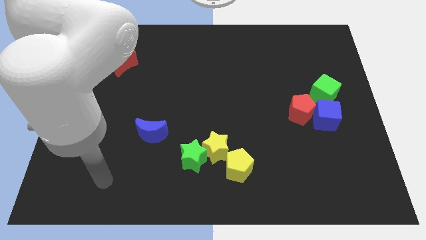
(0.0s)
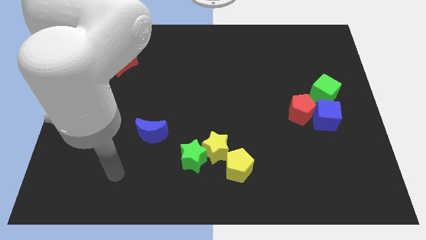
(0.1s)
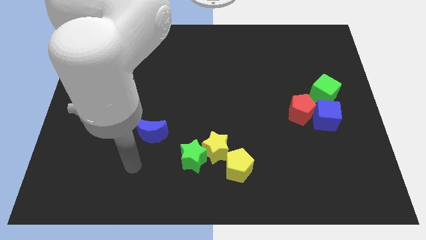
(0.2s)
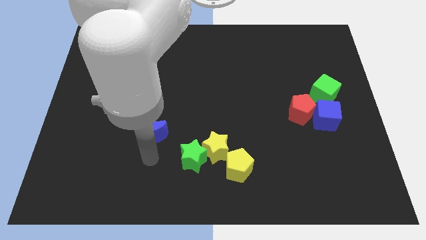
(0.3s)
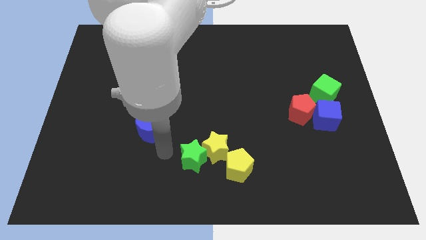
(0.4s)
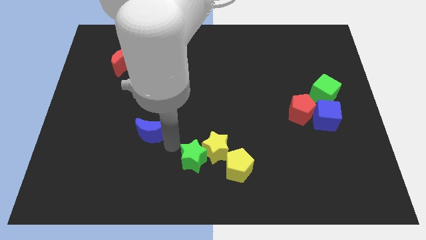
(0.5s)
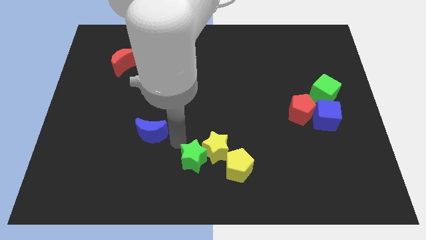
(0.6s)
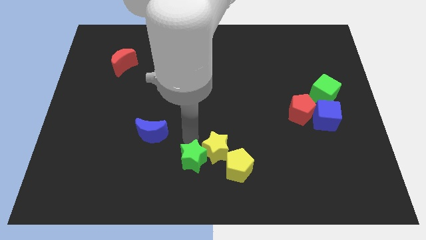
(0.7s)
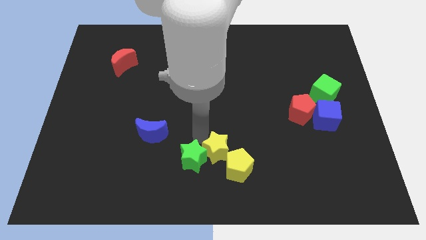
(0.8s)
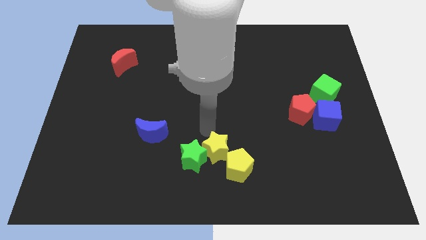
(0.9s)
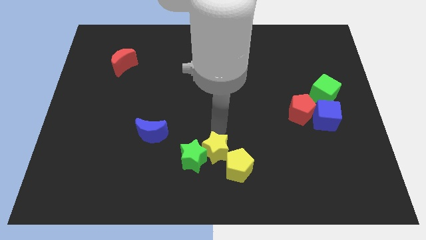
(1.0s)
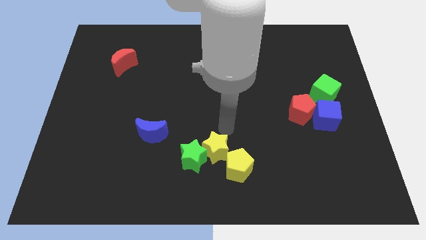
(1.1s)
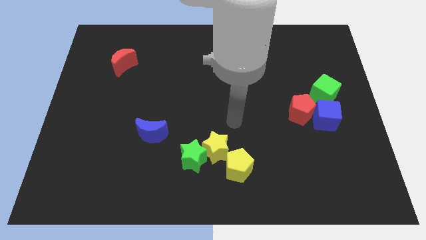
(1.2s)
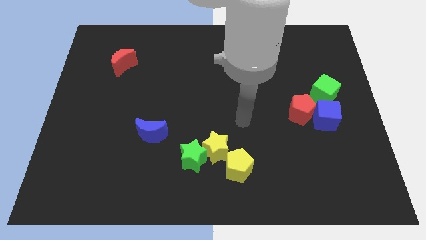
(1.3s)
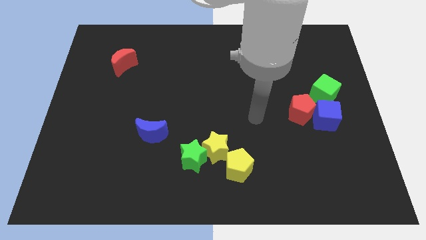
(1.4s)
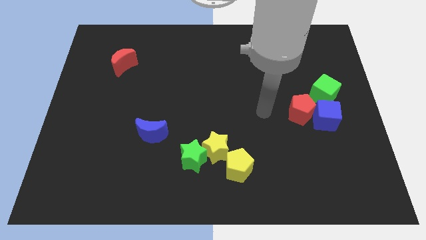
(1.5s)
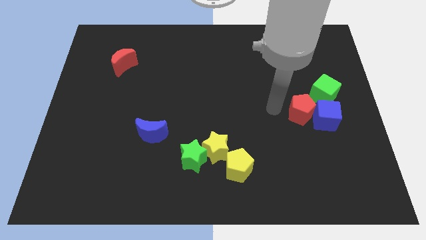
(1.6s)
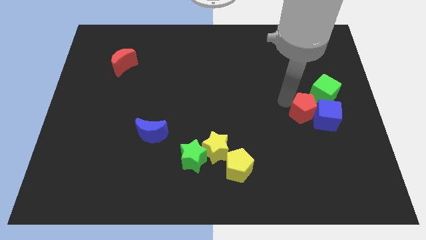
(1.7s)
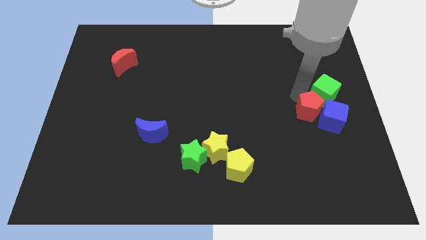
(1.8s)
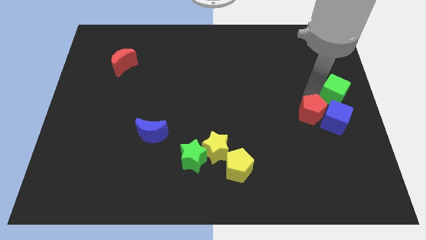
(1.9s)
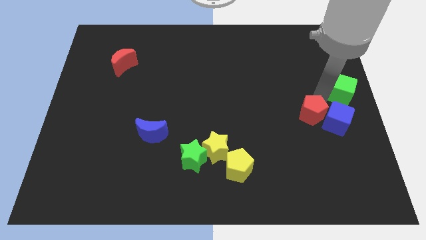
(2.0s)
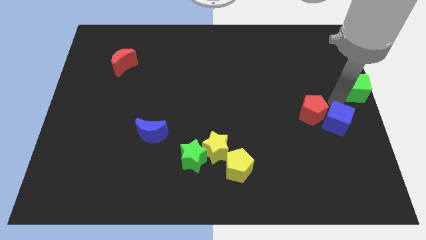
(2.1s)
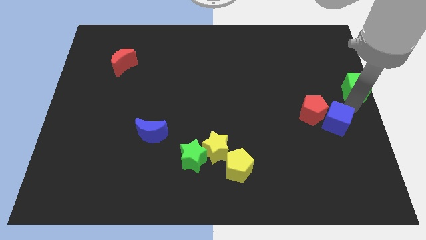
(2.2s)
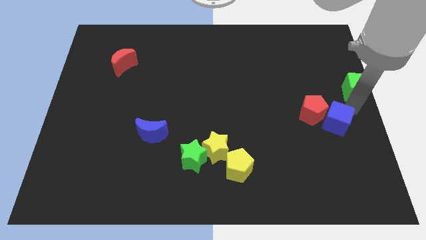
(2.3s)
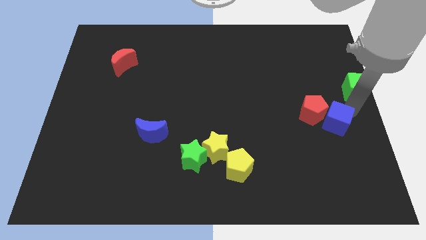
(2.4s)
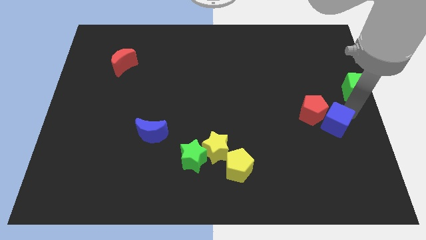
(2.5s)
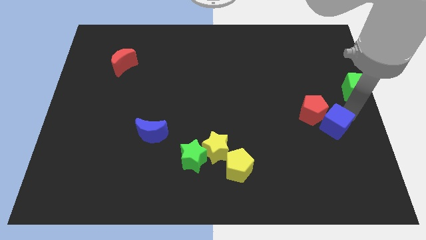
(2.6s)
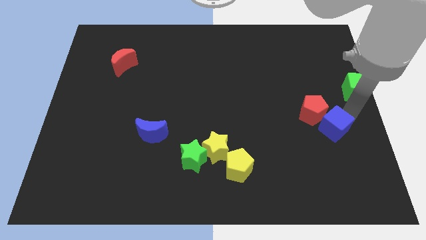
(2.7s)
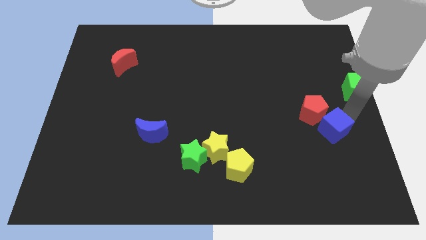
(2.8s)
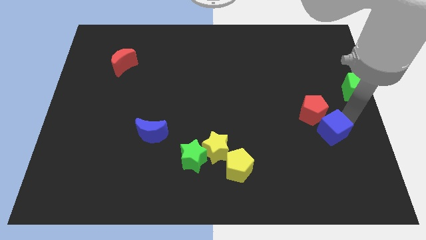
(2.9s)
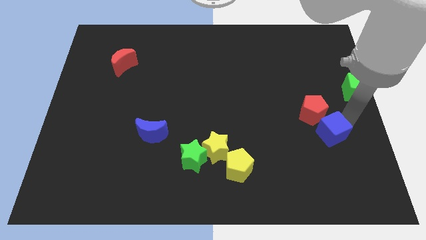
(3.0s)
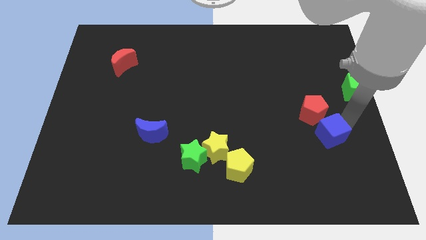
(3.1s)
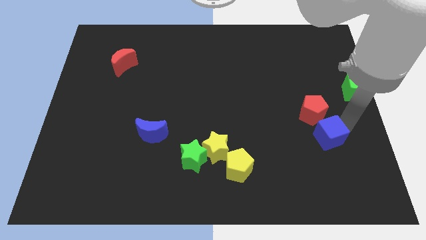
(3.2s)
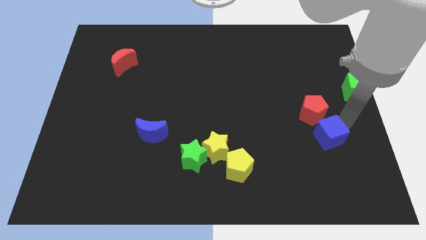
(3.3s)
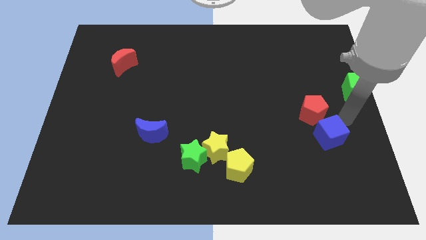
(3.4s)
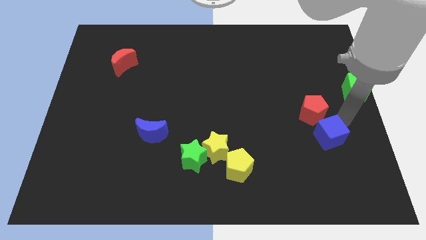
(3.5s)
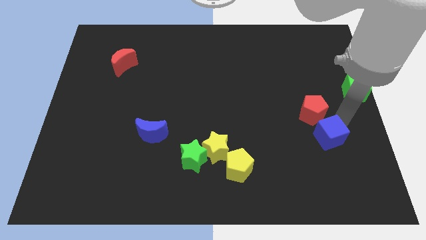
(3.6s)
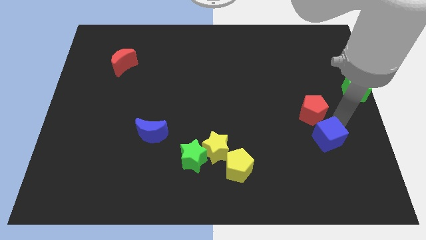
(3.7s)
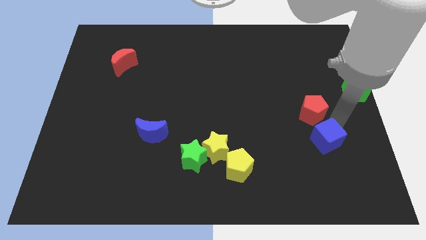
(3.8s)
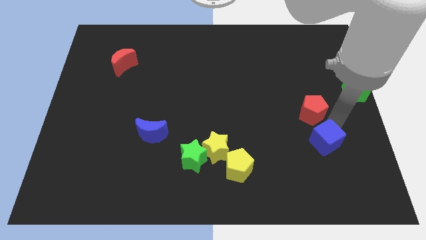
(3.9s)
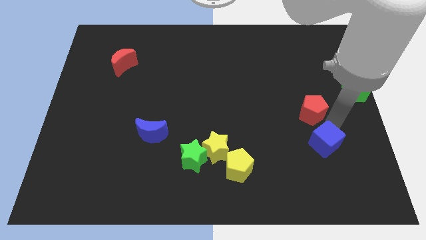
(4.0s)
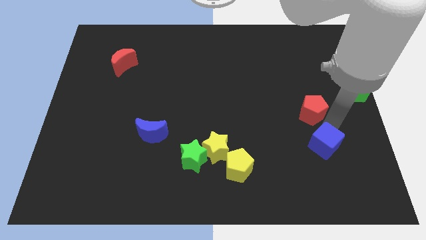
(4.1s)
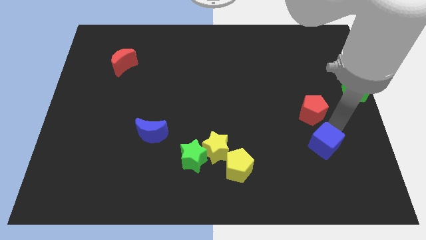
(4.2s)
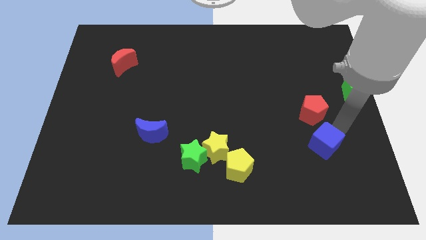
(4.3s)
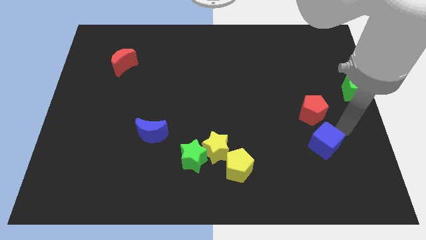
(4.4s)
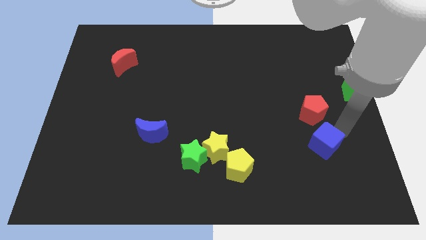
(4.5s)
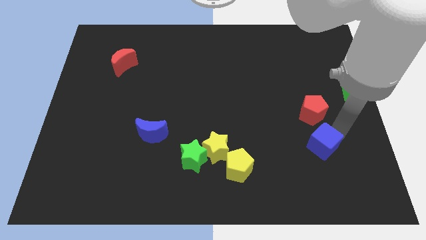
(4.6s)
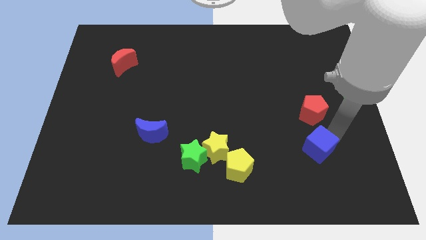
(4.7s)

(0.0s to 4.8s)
slide the blue cube diagonally downwards and left a bit

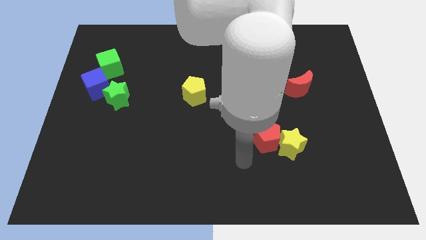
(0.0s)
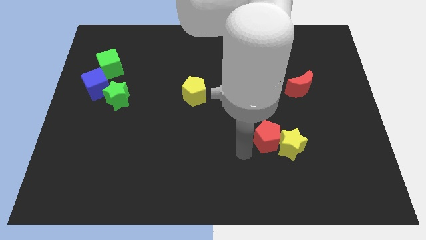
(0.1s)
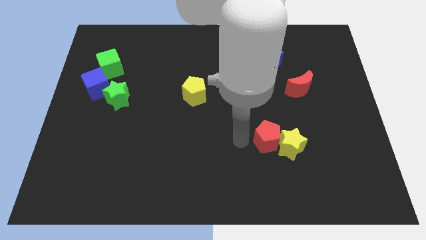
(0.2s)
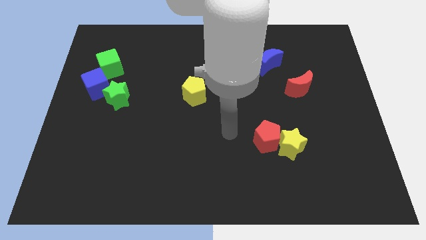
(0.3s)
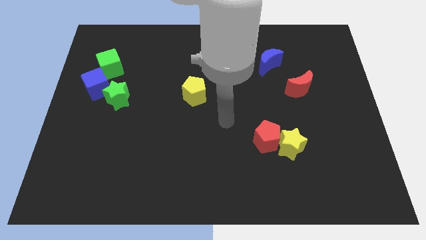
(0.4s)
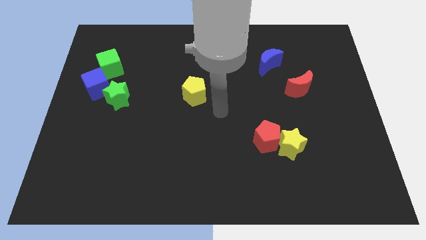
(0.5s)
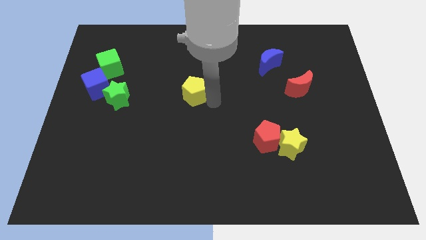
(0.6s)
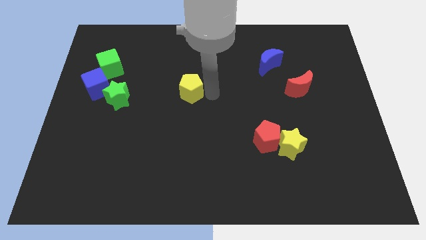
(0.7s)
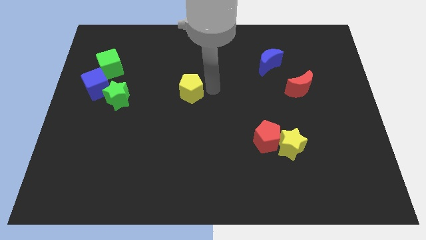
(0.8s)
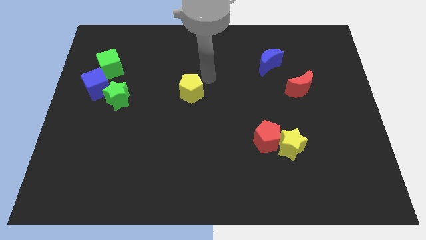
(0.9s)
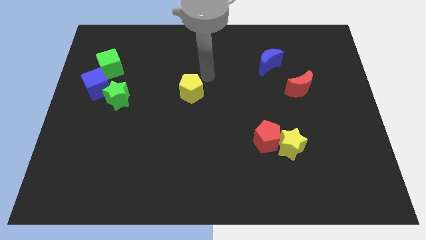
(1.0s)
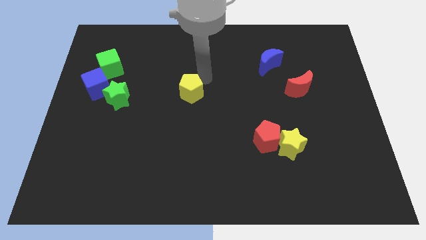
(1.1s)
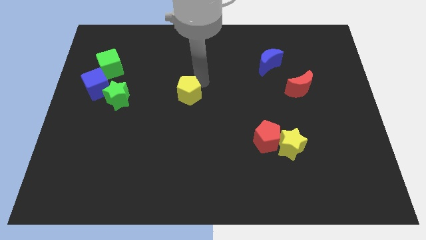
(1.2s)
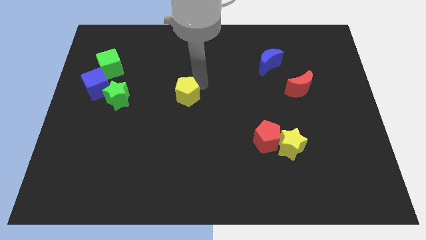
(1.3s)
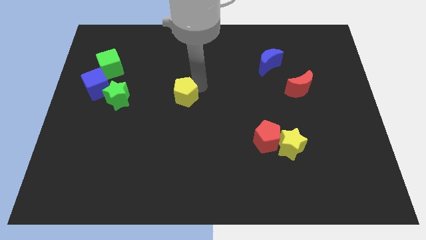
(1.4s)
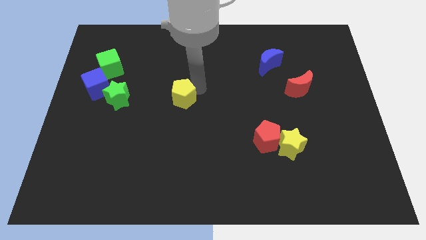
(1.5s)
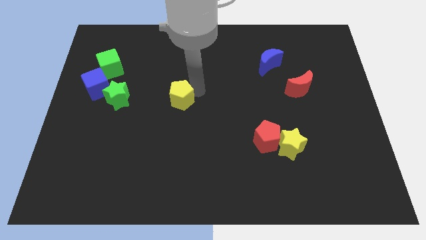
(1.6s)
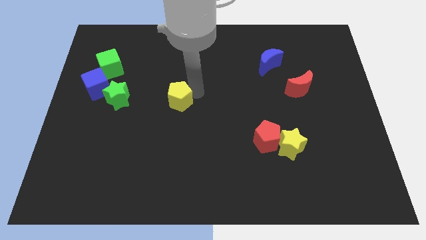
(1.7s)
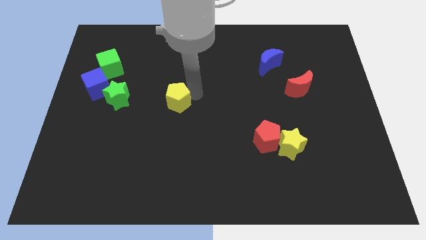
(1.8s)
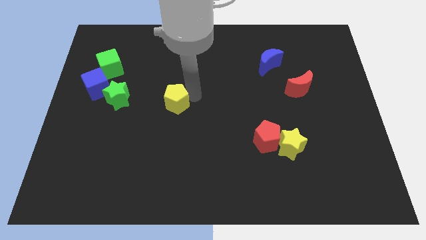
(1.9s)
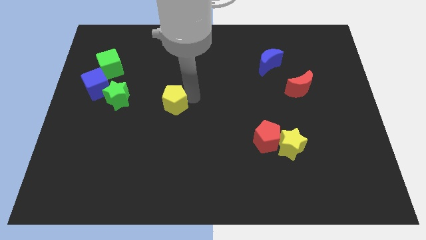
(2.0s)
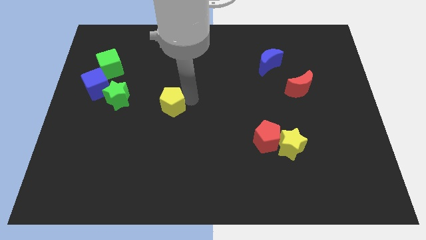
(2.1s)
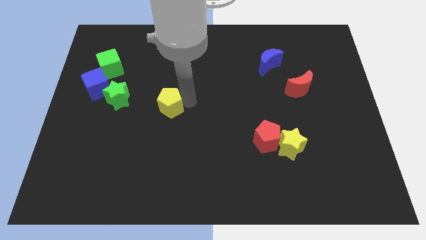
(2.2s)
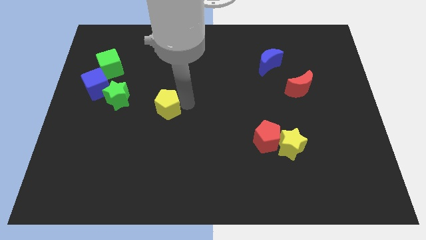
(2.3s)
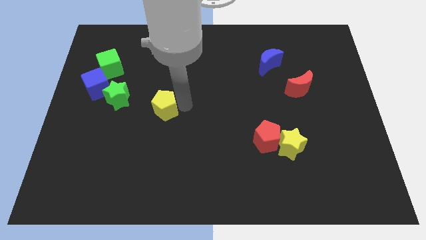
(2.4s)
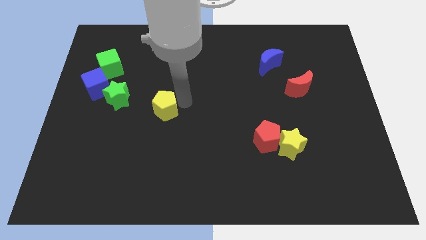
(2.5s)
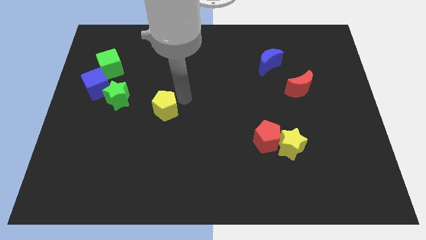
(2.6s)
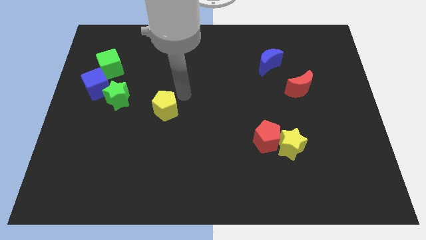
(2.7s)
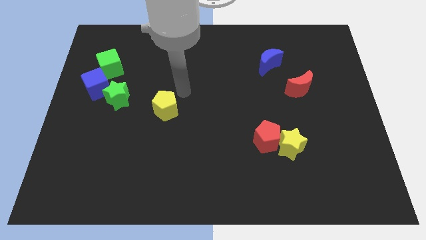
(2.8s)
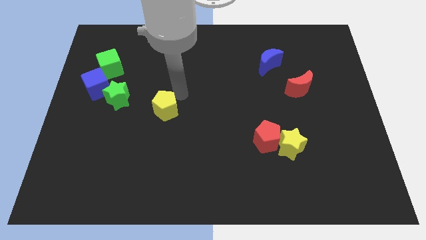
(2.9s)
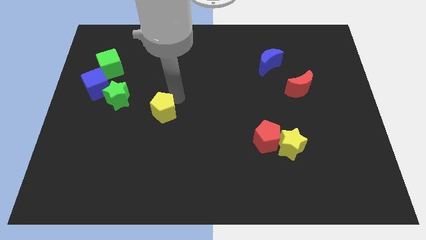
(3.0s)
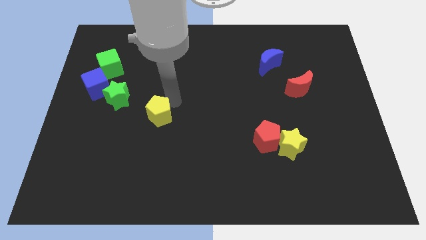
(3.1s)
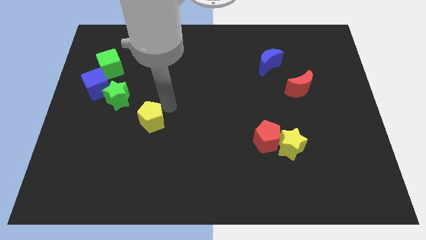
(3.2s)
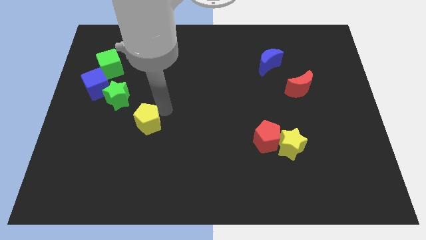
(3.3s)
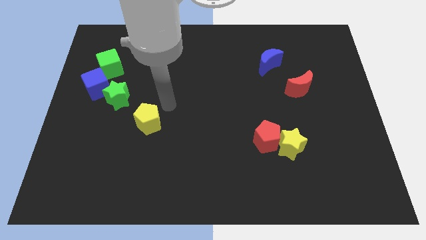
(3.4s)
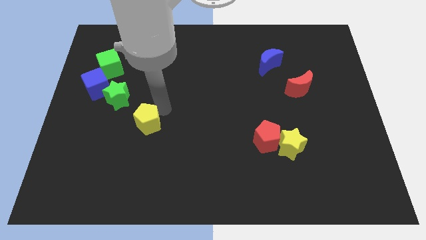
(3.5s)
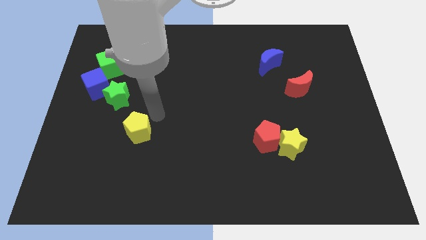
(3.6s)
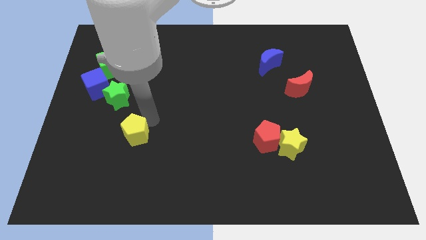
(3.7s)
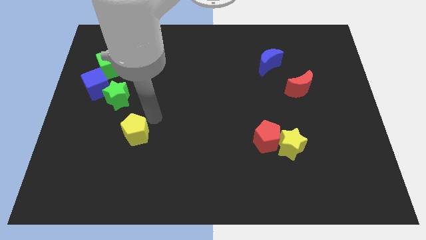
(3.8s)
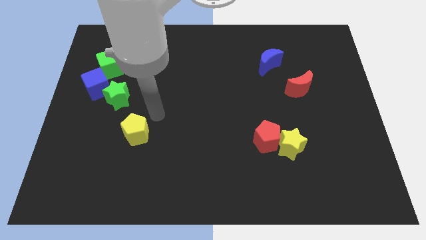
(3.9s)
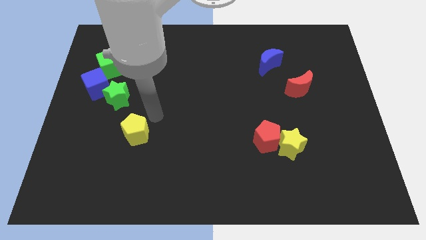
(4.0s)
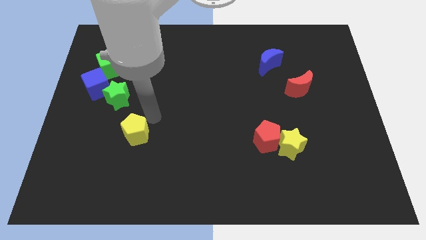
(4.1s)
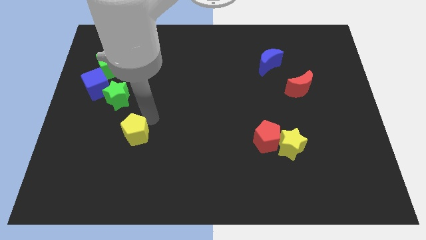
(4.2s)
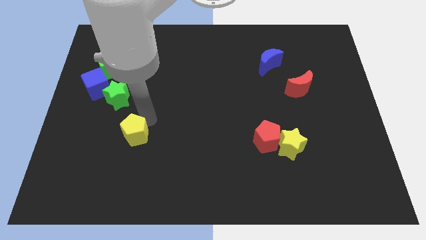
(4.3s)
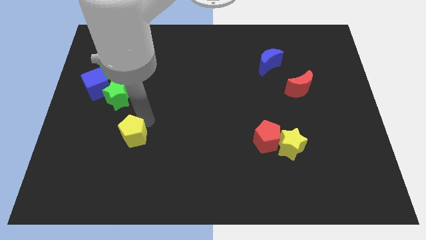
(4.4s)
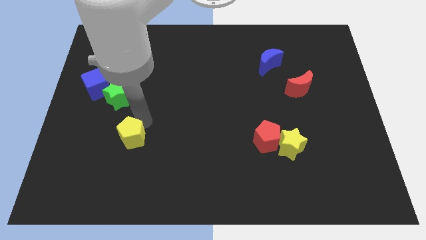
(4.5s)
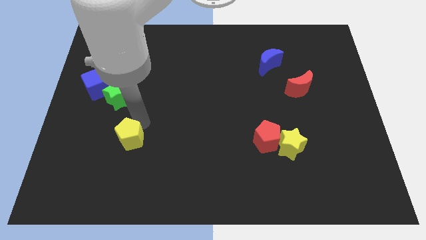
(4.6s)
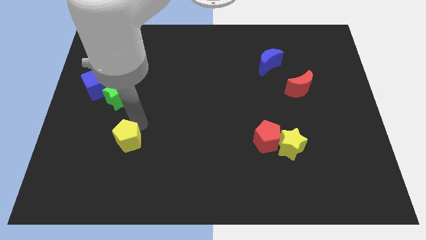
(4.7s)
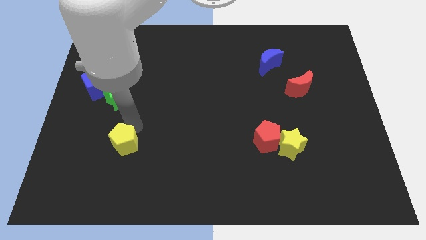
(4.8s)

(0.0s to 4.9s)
move the yellow pentagon downwards and then to the left
